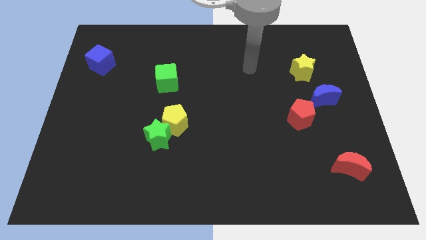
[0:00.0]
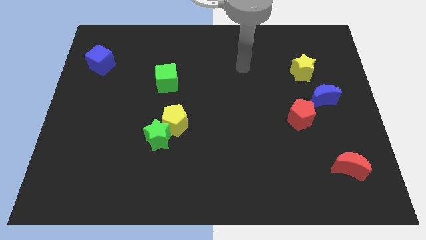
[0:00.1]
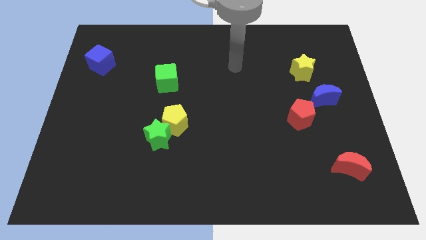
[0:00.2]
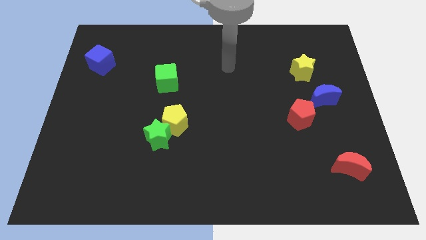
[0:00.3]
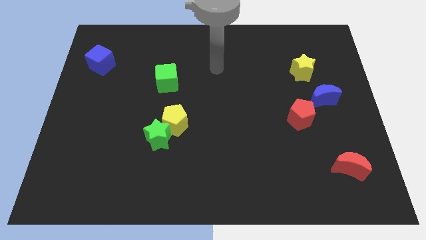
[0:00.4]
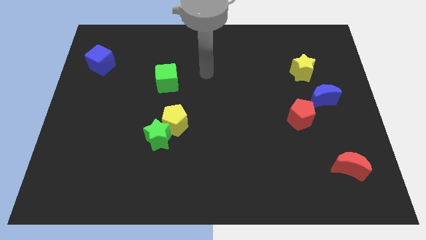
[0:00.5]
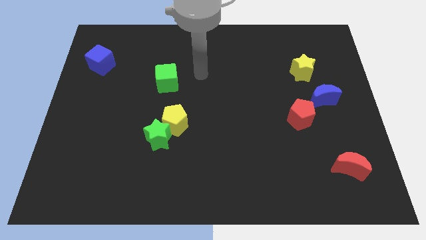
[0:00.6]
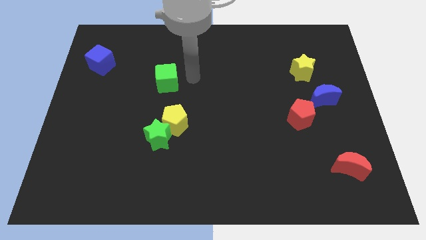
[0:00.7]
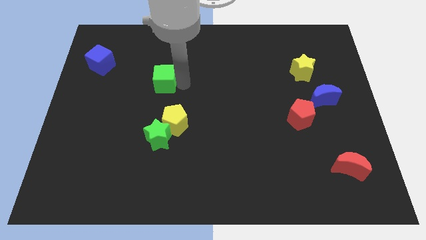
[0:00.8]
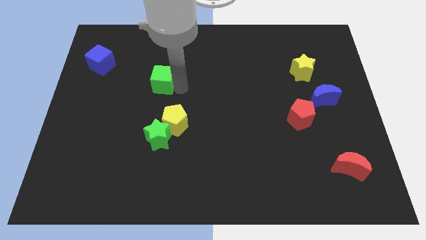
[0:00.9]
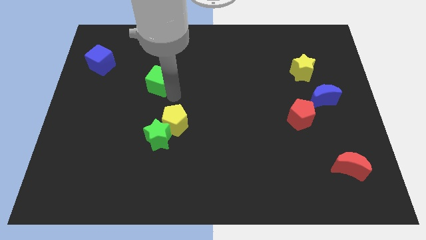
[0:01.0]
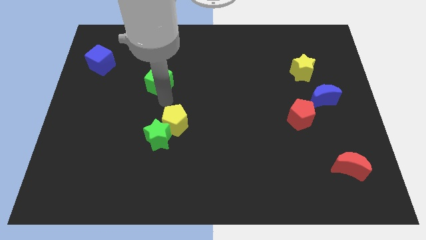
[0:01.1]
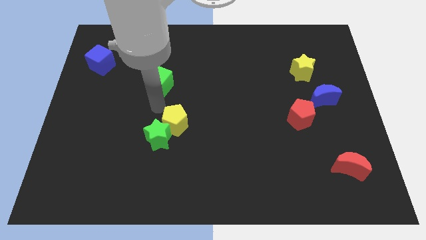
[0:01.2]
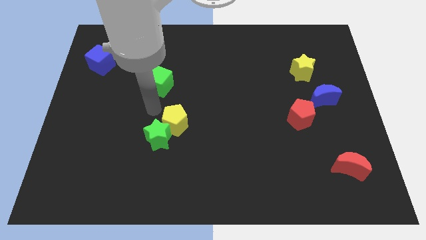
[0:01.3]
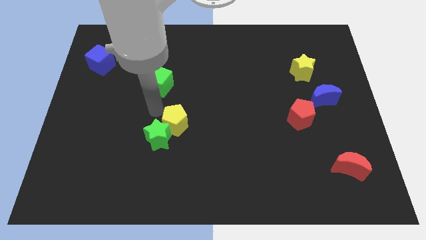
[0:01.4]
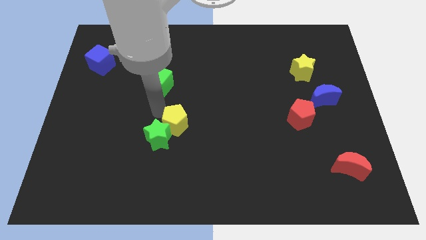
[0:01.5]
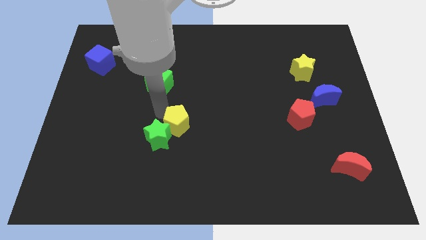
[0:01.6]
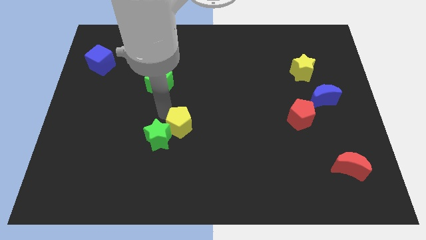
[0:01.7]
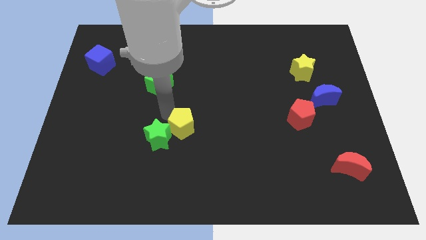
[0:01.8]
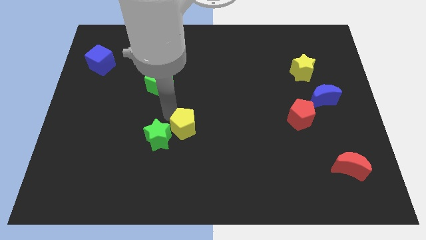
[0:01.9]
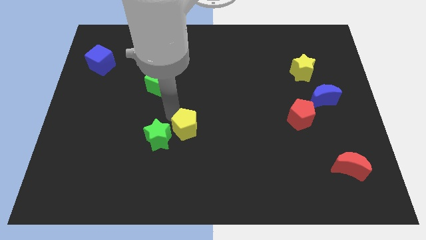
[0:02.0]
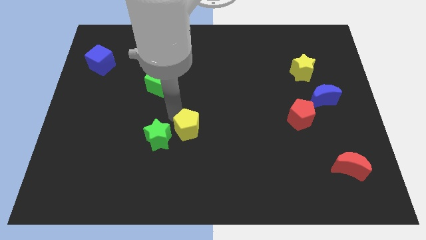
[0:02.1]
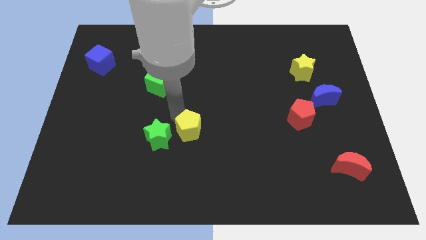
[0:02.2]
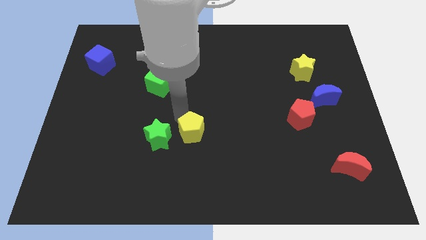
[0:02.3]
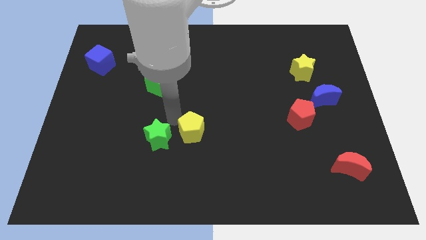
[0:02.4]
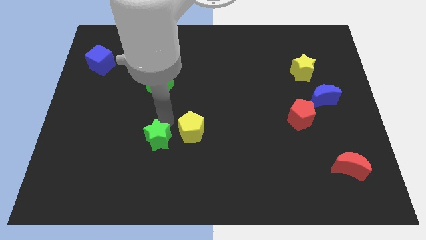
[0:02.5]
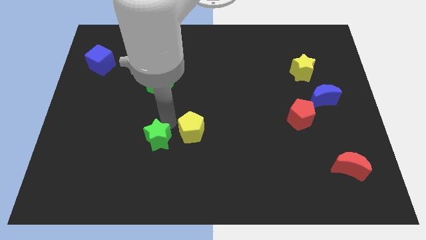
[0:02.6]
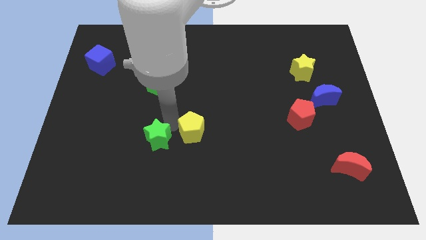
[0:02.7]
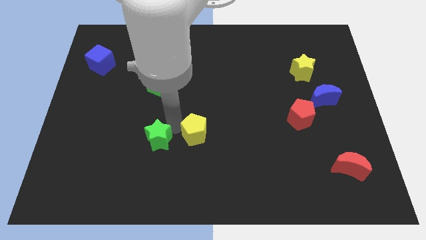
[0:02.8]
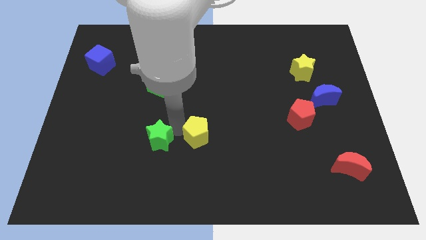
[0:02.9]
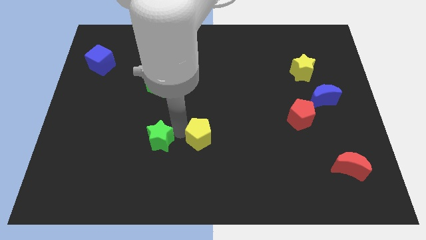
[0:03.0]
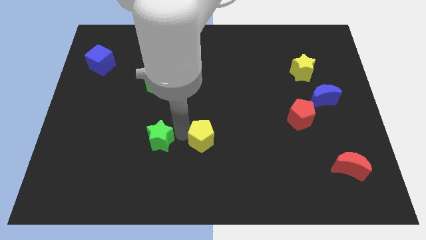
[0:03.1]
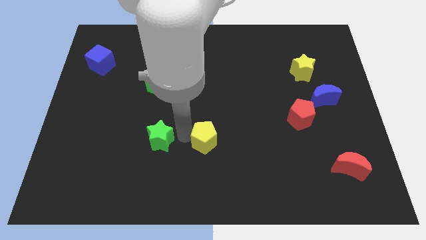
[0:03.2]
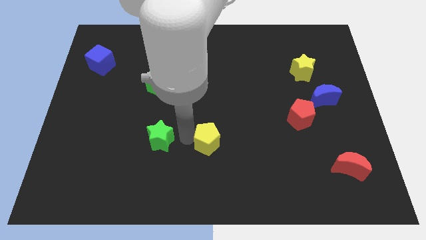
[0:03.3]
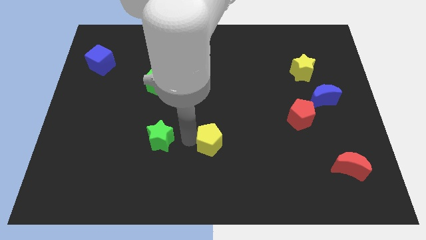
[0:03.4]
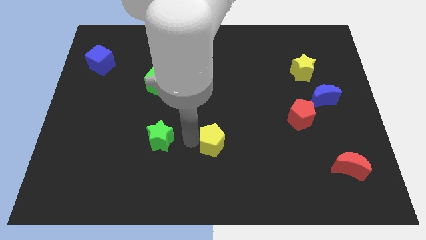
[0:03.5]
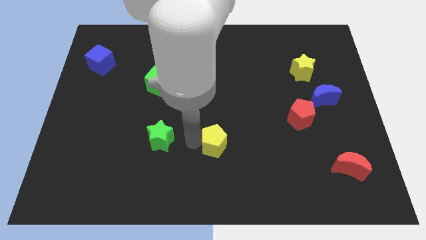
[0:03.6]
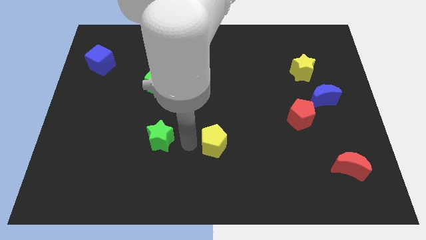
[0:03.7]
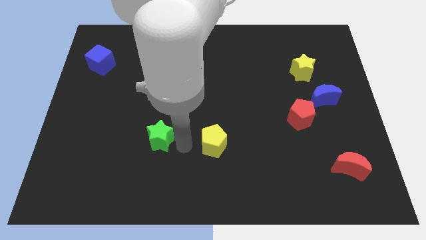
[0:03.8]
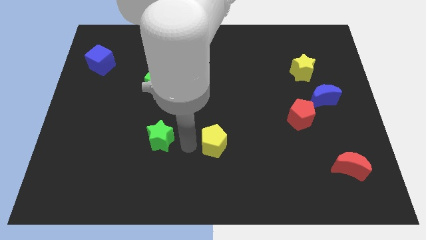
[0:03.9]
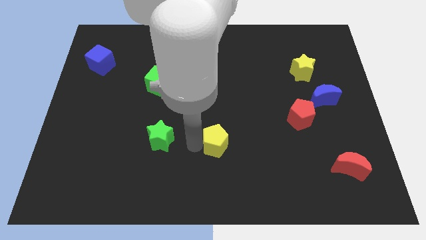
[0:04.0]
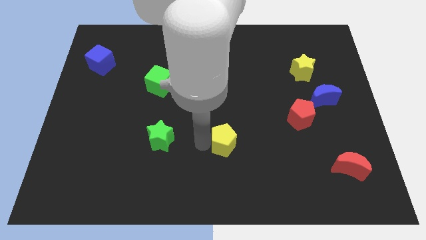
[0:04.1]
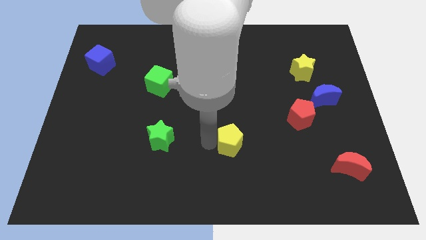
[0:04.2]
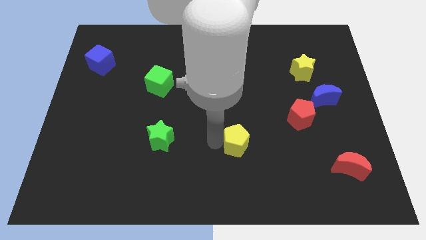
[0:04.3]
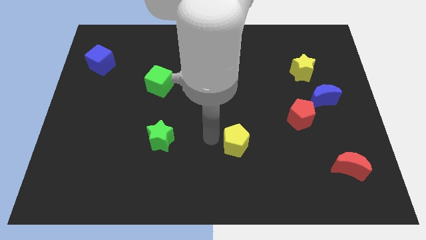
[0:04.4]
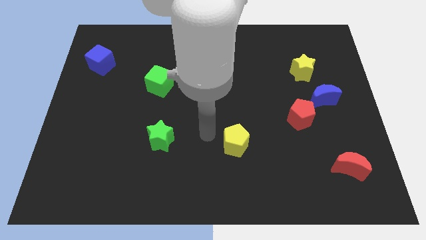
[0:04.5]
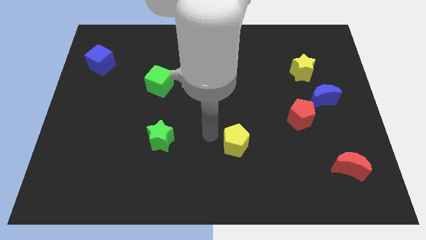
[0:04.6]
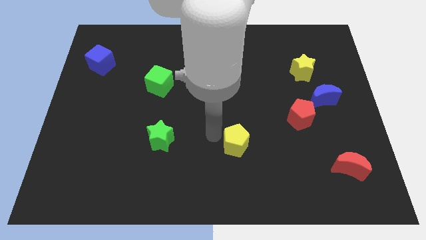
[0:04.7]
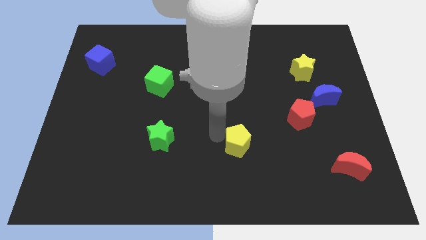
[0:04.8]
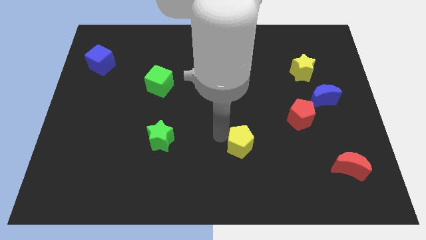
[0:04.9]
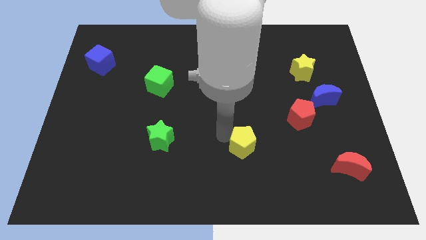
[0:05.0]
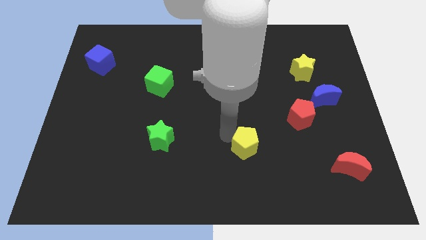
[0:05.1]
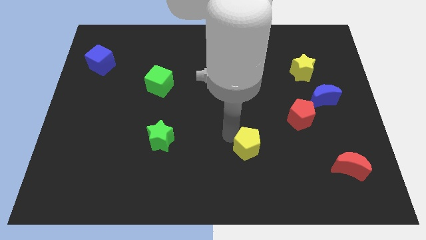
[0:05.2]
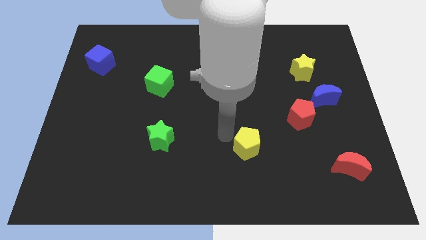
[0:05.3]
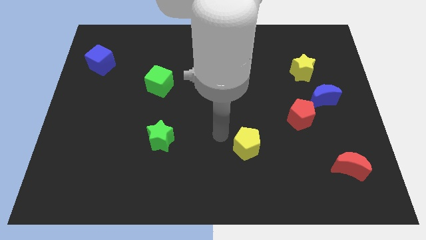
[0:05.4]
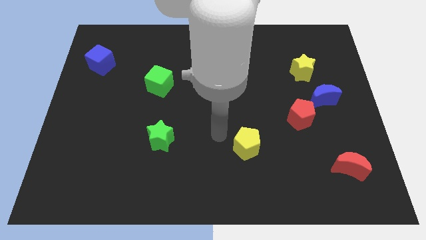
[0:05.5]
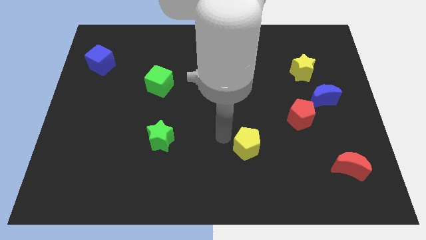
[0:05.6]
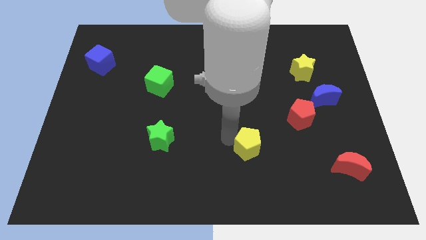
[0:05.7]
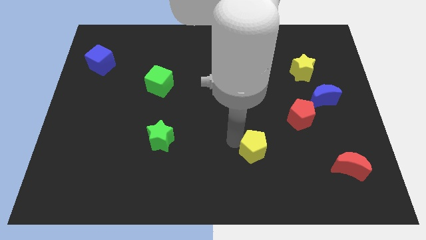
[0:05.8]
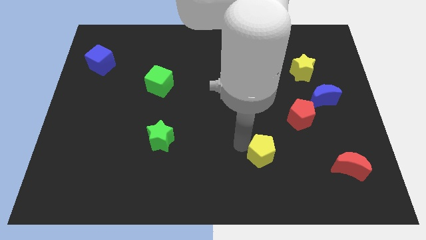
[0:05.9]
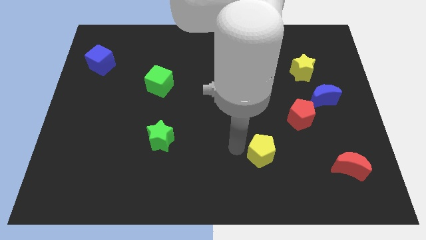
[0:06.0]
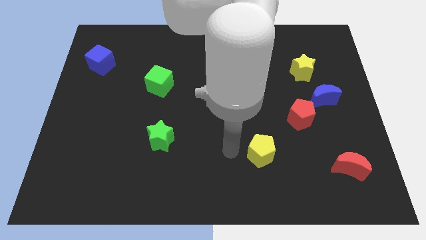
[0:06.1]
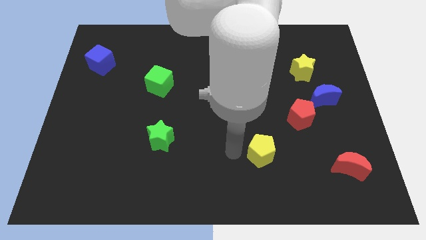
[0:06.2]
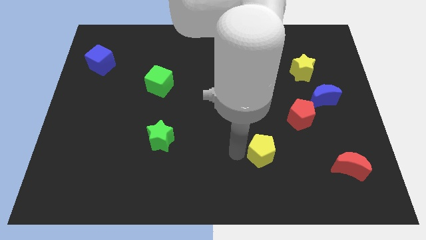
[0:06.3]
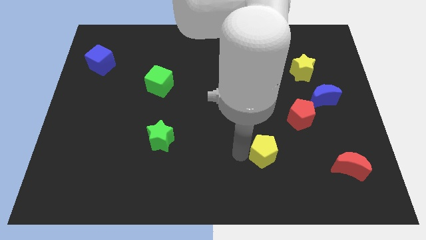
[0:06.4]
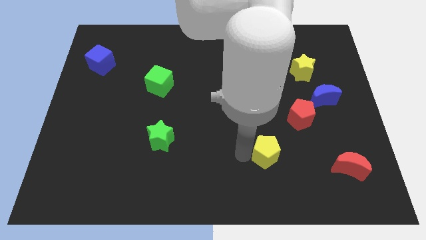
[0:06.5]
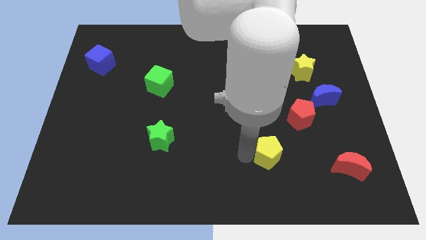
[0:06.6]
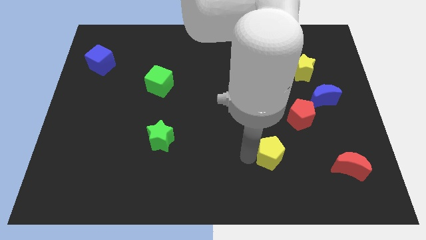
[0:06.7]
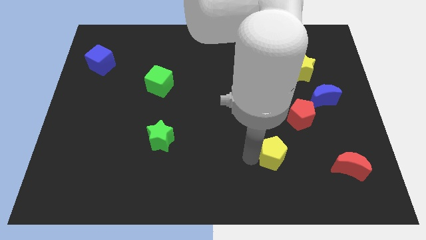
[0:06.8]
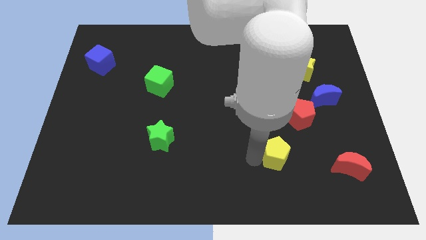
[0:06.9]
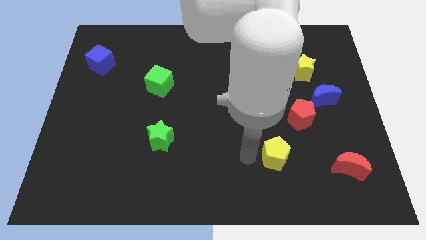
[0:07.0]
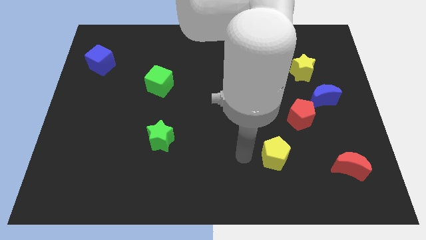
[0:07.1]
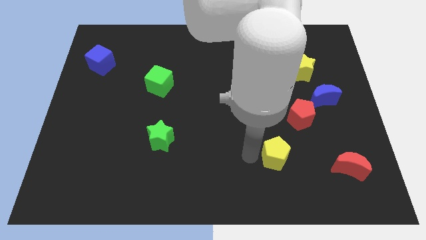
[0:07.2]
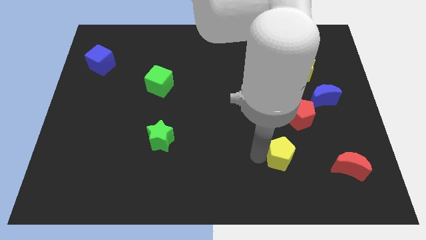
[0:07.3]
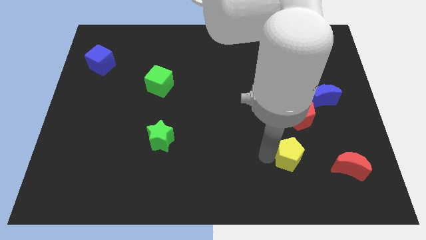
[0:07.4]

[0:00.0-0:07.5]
slide the yellow pentagon to the bottom of the red pentagon
